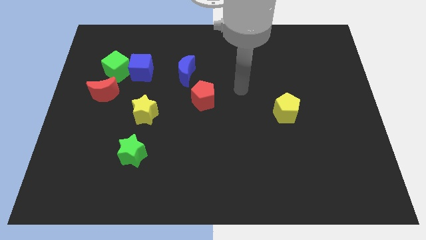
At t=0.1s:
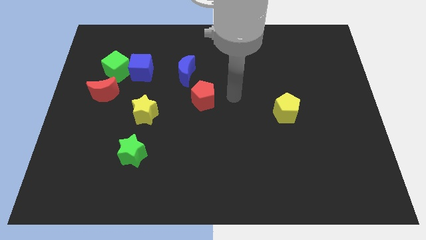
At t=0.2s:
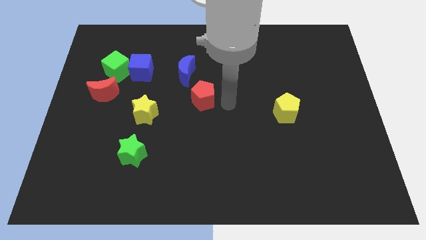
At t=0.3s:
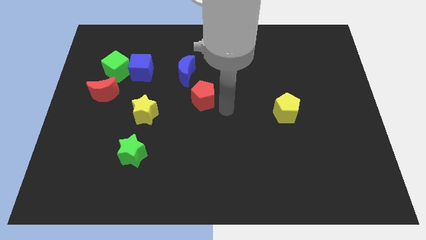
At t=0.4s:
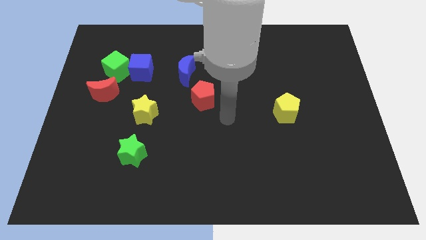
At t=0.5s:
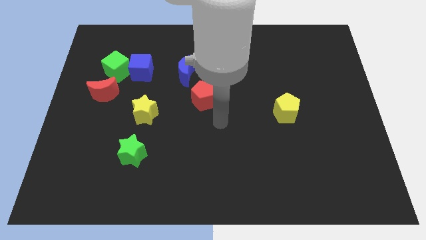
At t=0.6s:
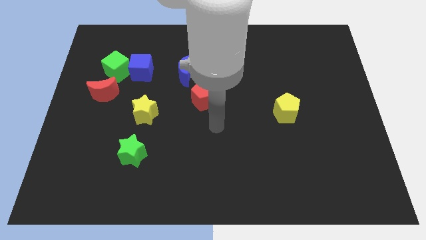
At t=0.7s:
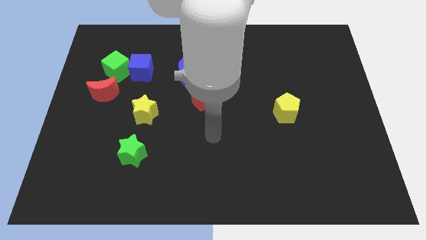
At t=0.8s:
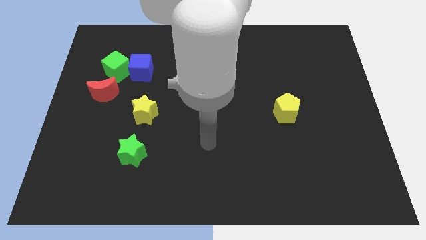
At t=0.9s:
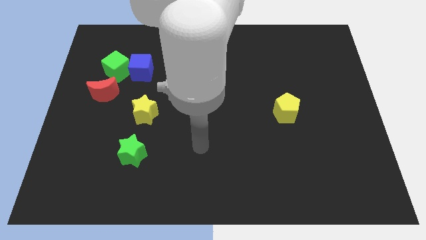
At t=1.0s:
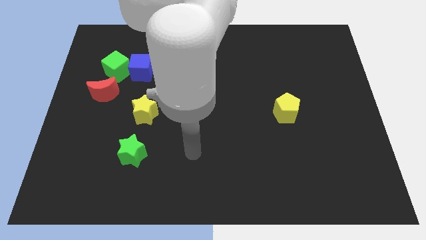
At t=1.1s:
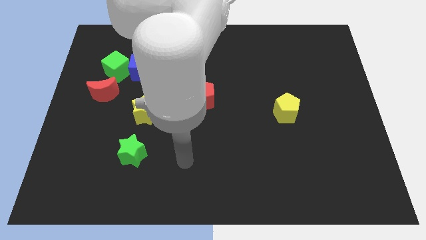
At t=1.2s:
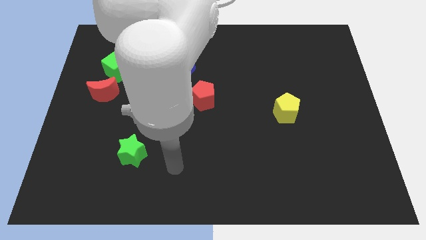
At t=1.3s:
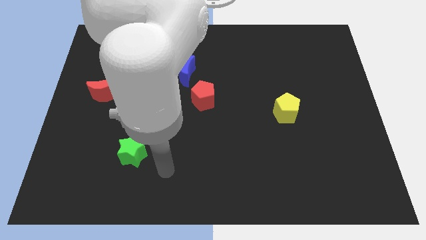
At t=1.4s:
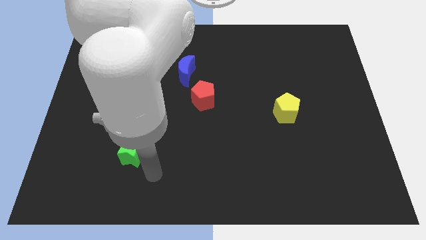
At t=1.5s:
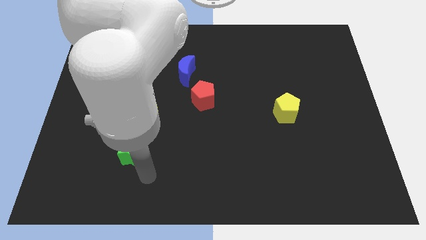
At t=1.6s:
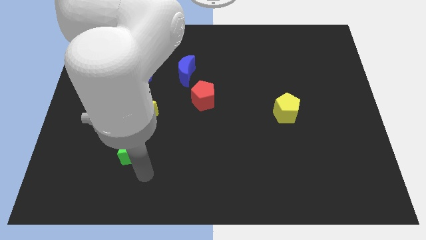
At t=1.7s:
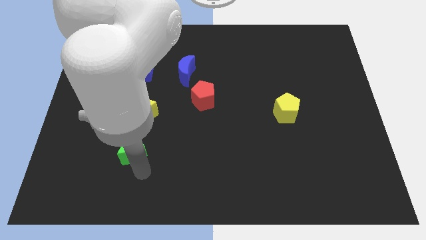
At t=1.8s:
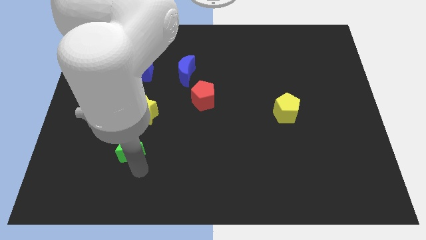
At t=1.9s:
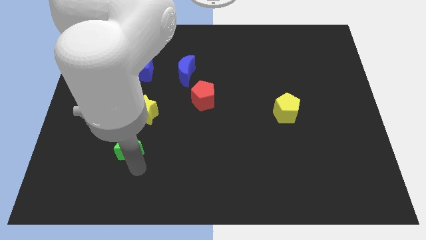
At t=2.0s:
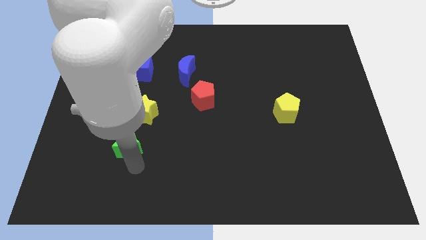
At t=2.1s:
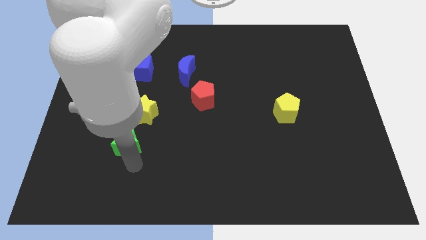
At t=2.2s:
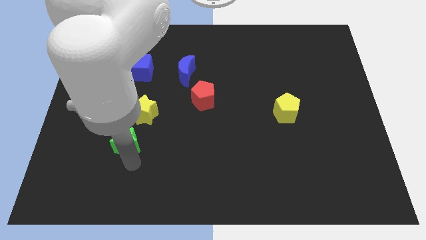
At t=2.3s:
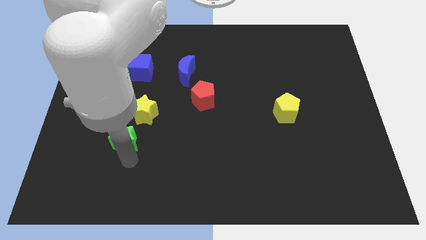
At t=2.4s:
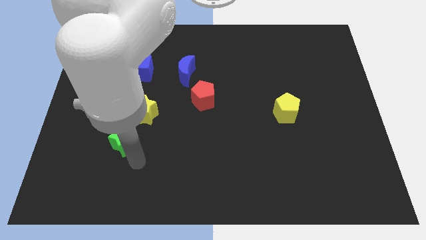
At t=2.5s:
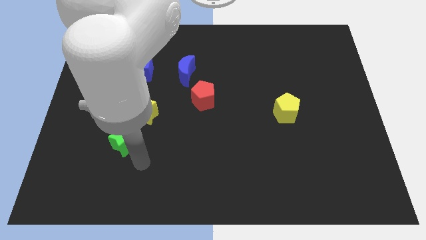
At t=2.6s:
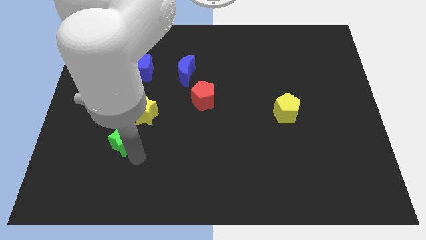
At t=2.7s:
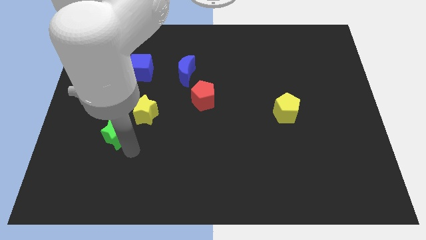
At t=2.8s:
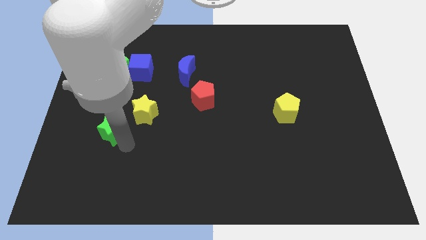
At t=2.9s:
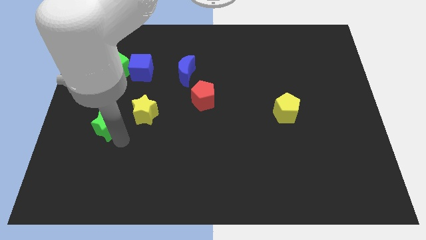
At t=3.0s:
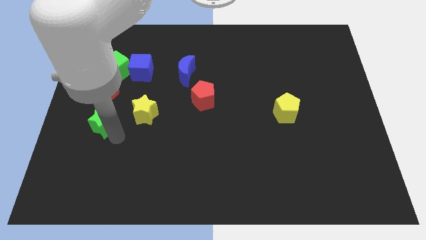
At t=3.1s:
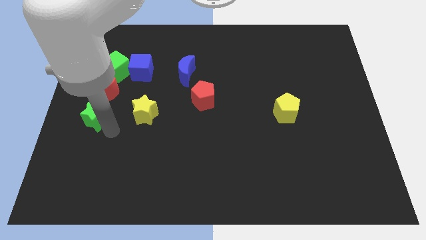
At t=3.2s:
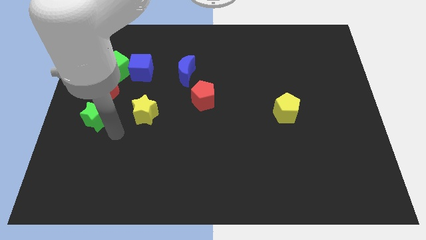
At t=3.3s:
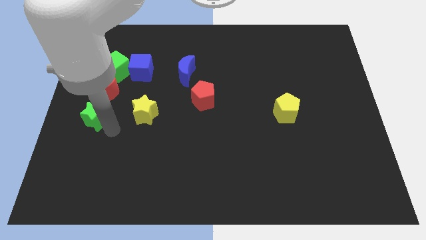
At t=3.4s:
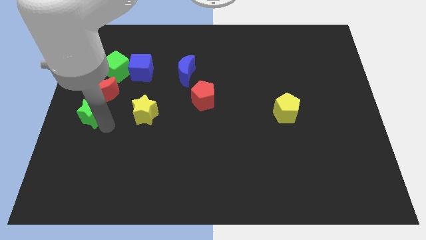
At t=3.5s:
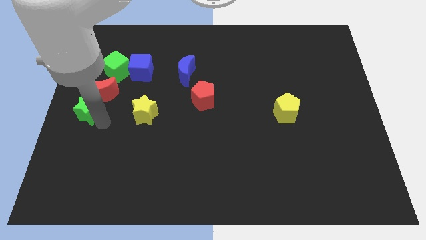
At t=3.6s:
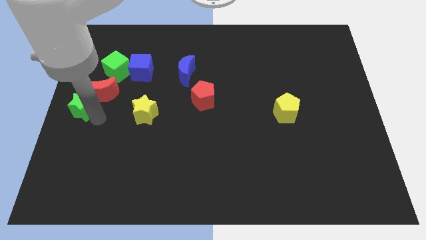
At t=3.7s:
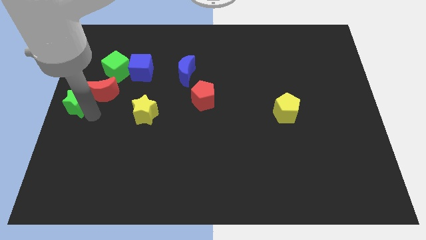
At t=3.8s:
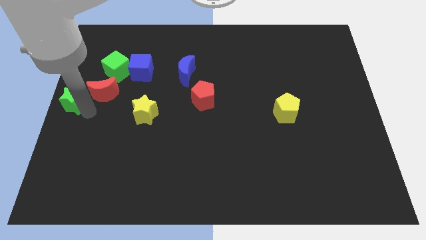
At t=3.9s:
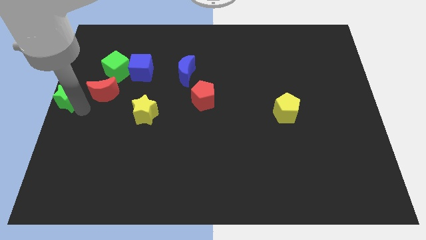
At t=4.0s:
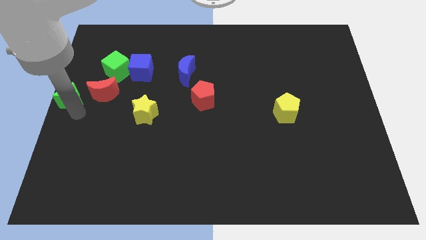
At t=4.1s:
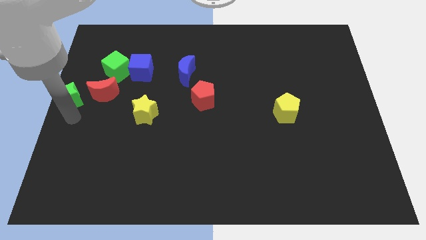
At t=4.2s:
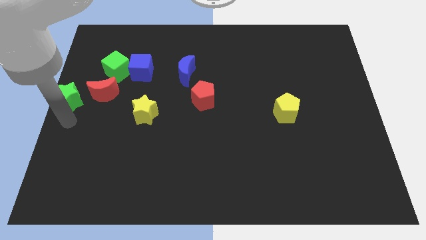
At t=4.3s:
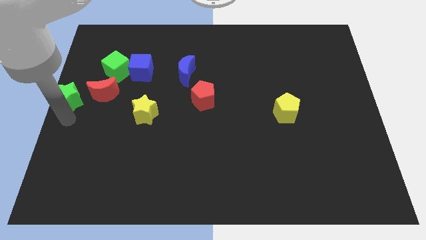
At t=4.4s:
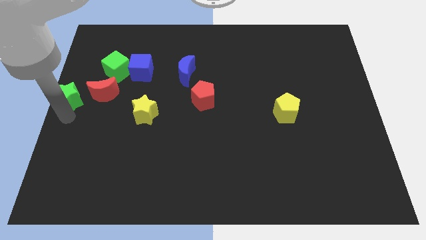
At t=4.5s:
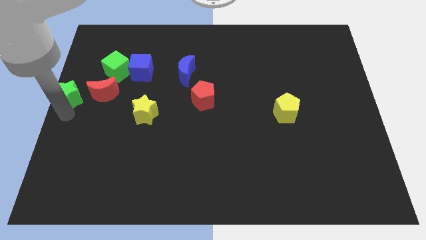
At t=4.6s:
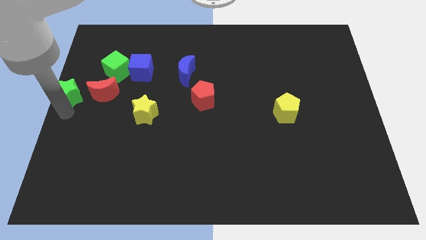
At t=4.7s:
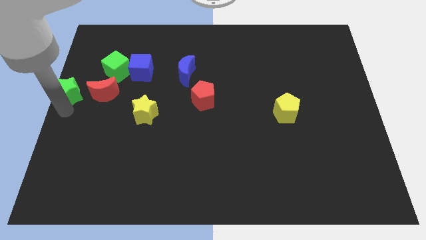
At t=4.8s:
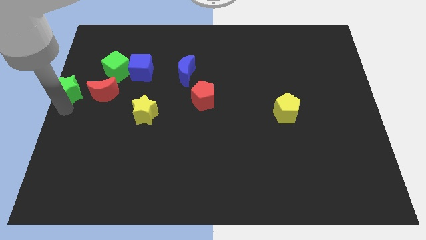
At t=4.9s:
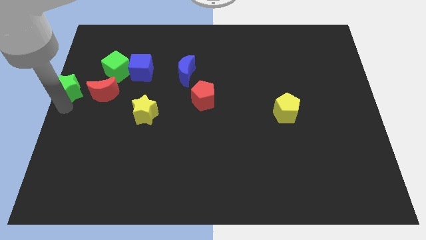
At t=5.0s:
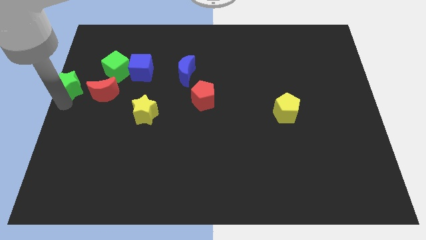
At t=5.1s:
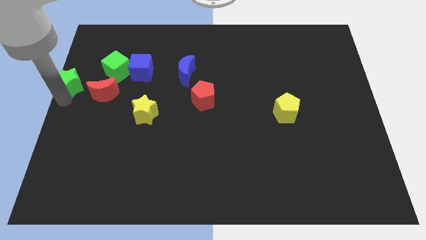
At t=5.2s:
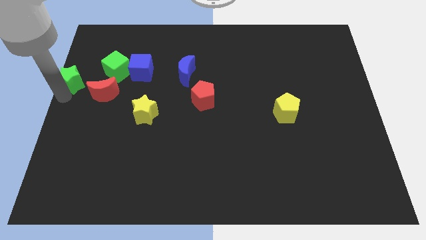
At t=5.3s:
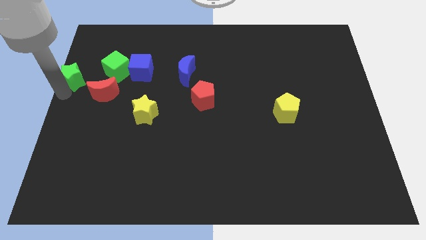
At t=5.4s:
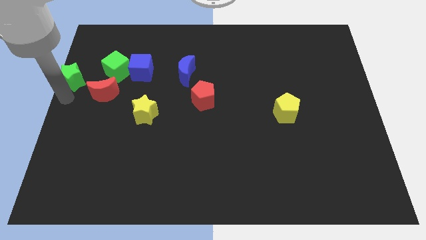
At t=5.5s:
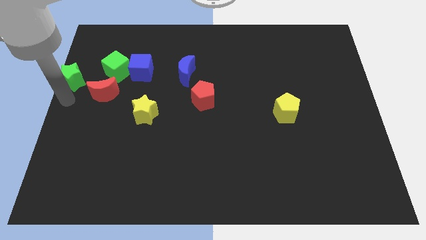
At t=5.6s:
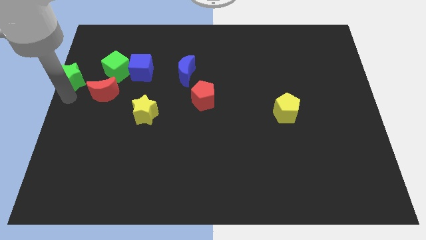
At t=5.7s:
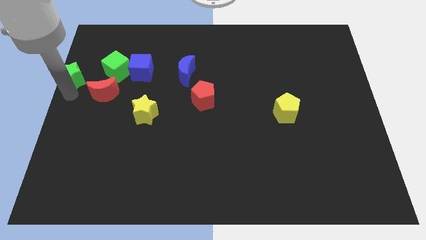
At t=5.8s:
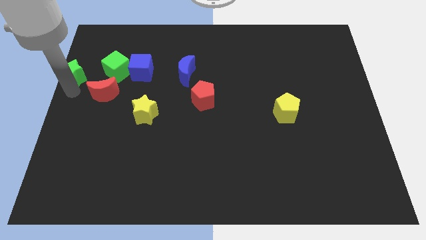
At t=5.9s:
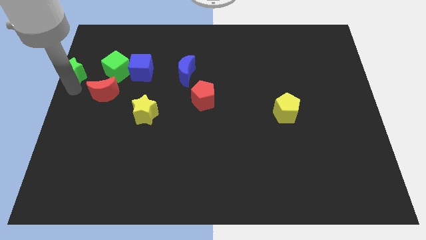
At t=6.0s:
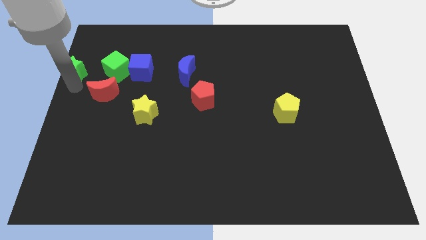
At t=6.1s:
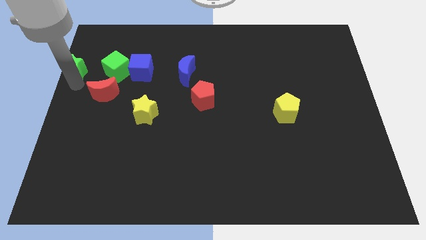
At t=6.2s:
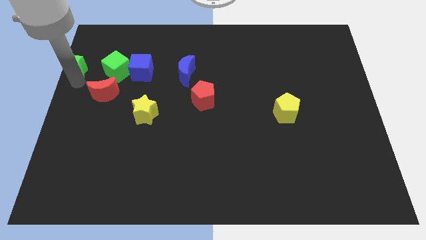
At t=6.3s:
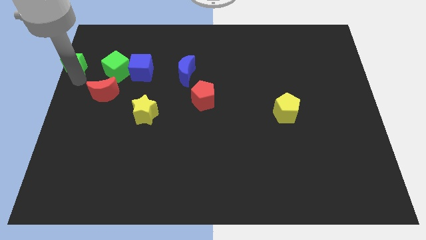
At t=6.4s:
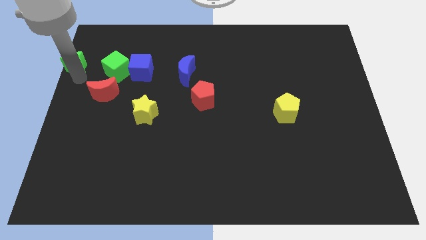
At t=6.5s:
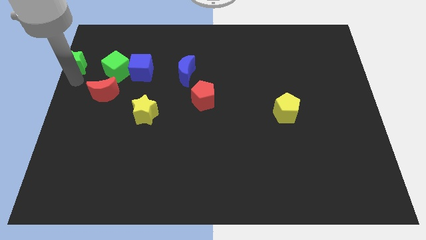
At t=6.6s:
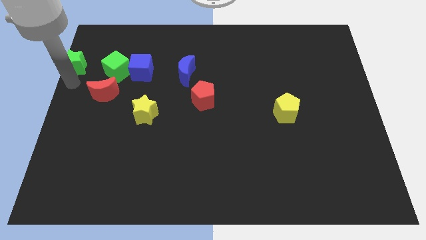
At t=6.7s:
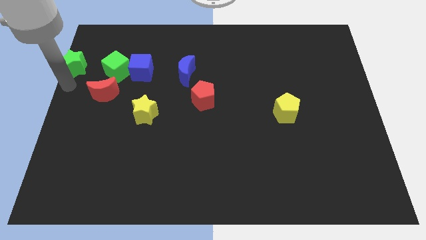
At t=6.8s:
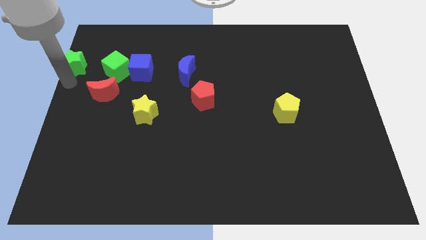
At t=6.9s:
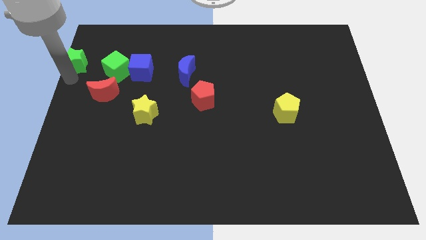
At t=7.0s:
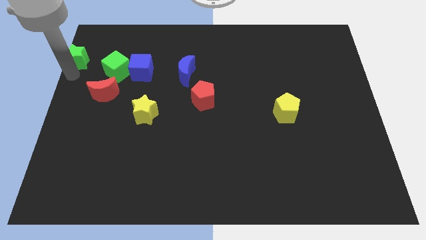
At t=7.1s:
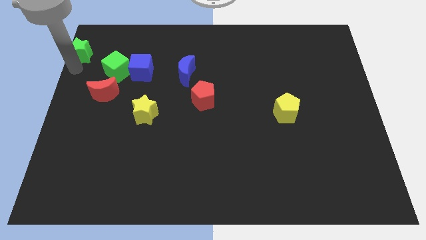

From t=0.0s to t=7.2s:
slide the green star to the upper left corner
